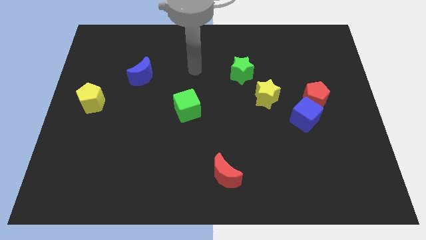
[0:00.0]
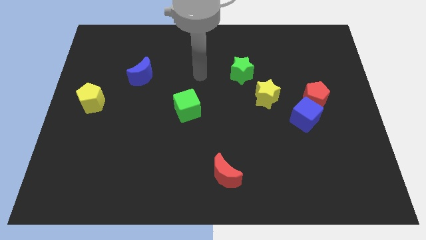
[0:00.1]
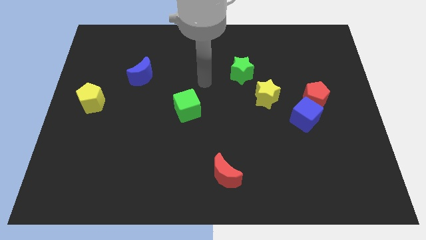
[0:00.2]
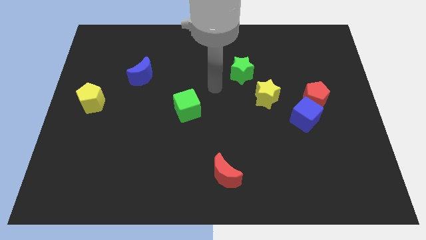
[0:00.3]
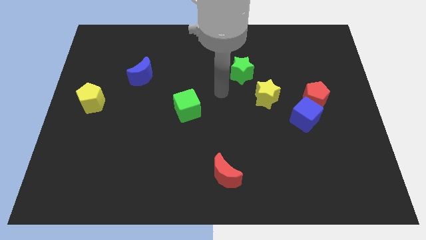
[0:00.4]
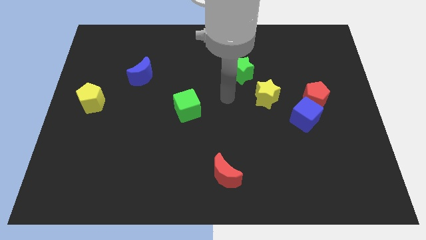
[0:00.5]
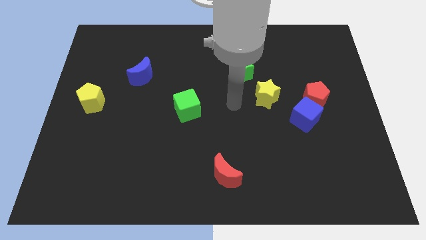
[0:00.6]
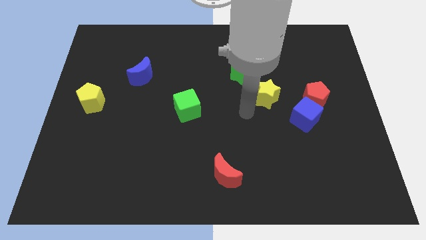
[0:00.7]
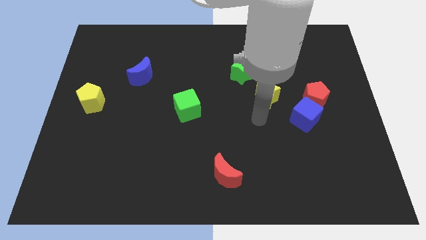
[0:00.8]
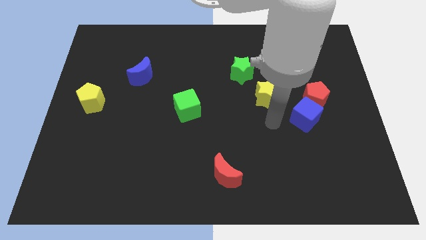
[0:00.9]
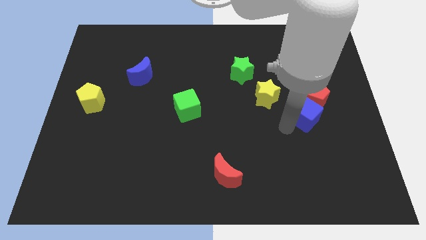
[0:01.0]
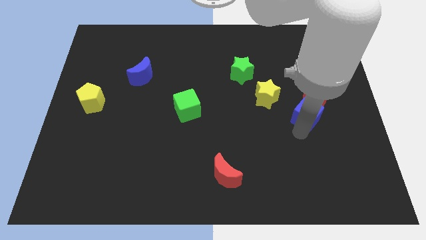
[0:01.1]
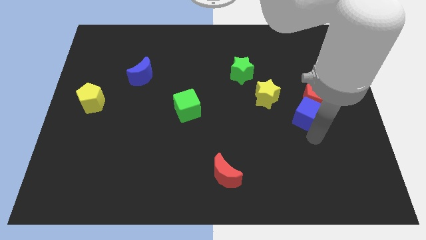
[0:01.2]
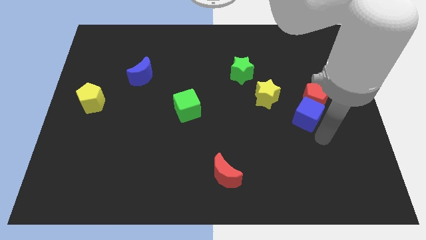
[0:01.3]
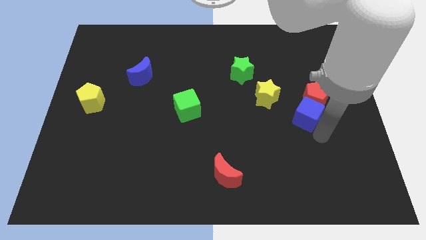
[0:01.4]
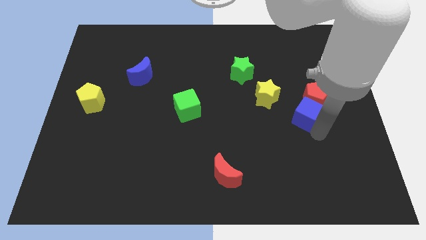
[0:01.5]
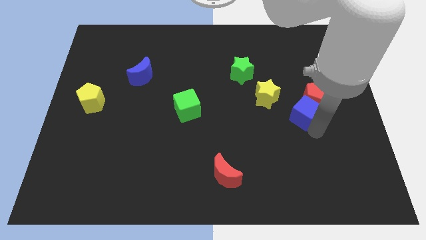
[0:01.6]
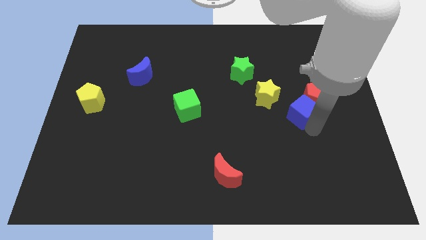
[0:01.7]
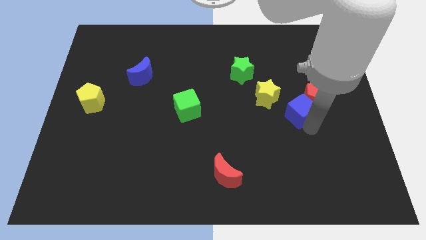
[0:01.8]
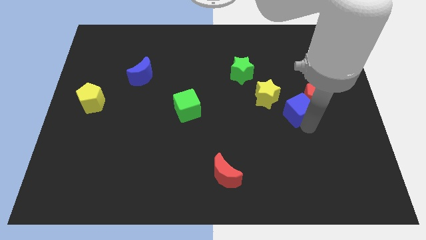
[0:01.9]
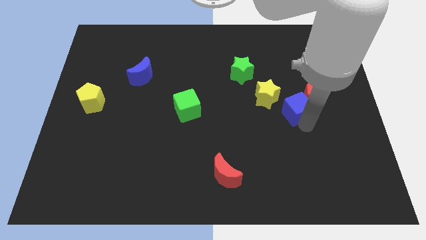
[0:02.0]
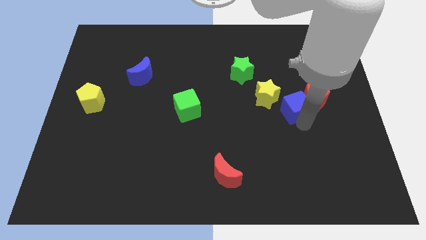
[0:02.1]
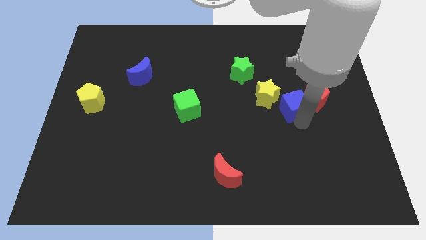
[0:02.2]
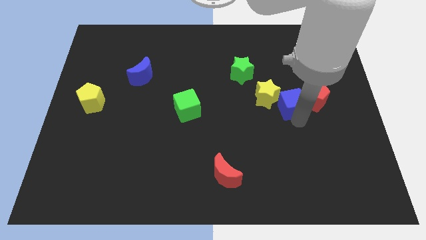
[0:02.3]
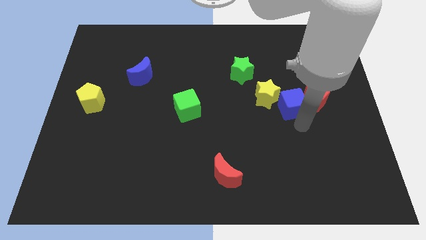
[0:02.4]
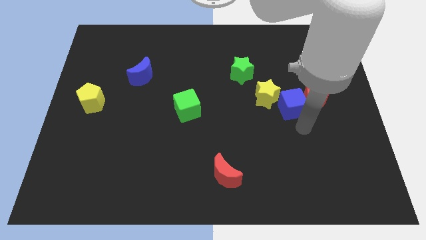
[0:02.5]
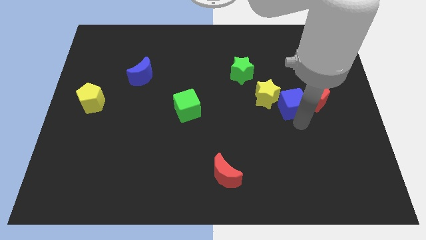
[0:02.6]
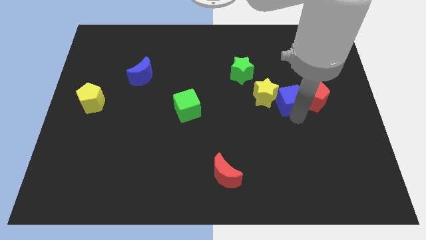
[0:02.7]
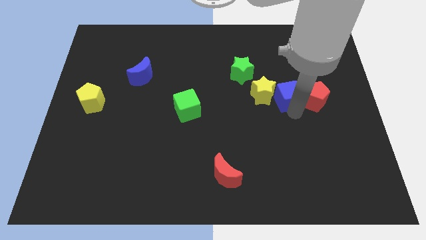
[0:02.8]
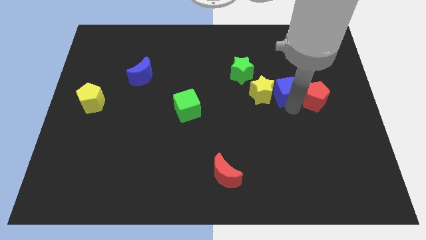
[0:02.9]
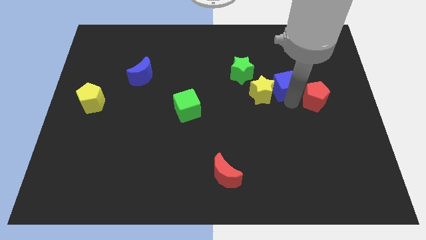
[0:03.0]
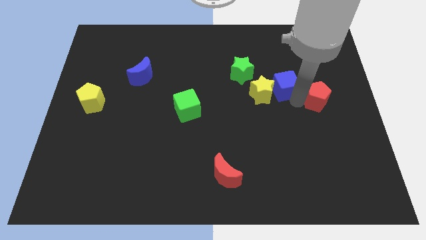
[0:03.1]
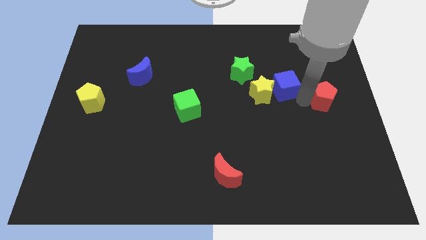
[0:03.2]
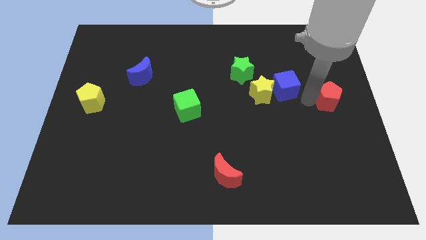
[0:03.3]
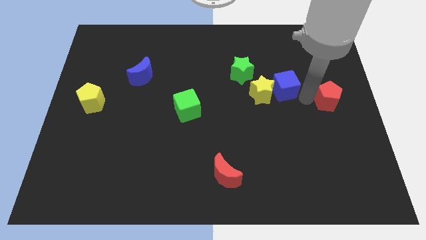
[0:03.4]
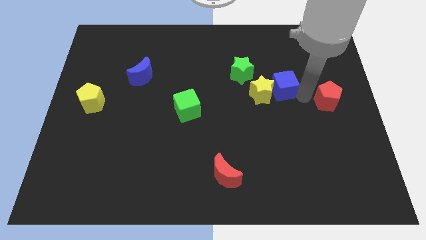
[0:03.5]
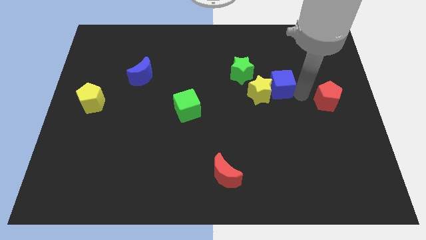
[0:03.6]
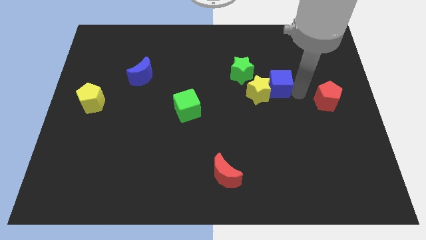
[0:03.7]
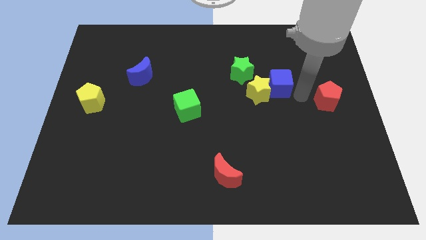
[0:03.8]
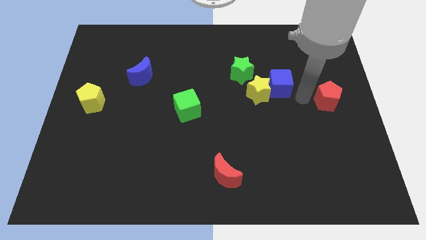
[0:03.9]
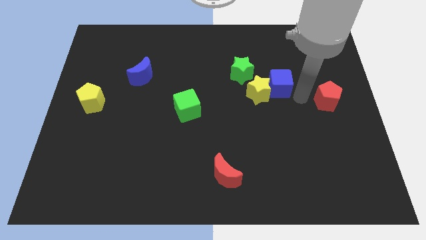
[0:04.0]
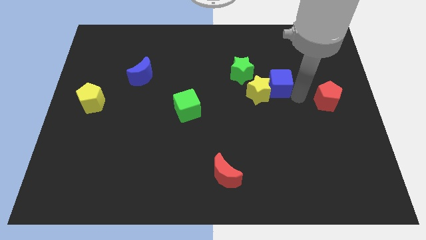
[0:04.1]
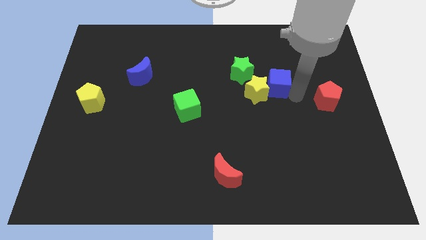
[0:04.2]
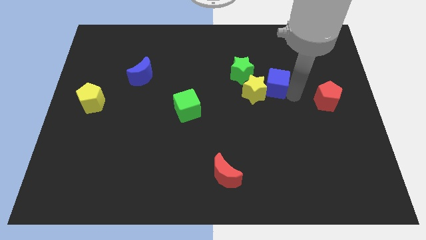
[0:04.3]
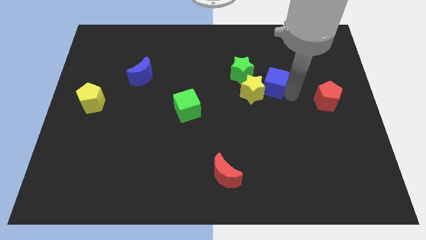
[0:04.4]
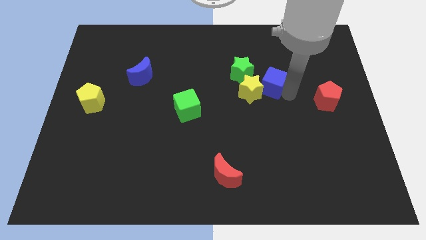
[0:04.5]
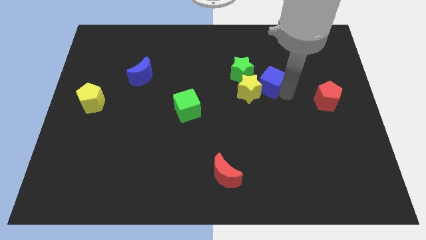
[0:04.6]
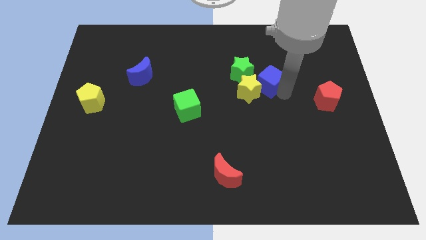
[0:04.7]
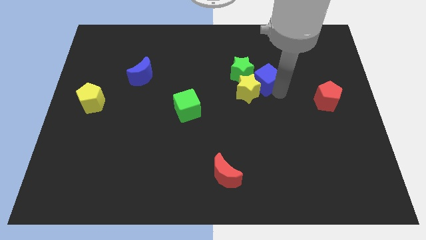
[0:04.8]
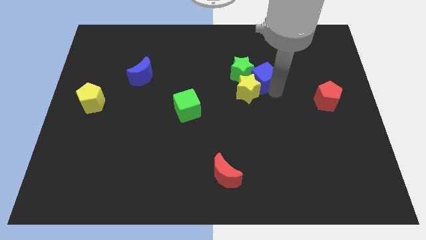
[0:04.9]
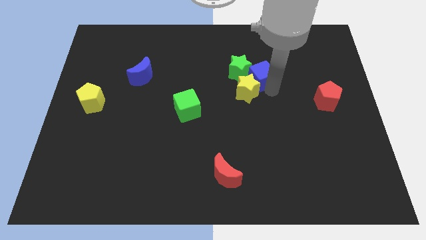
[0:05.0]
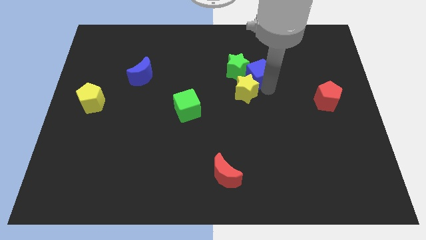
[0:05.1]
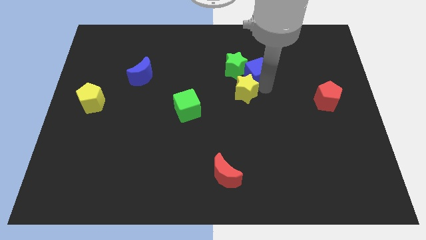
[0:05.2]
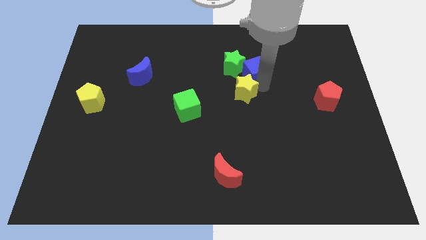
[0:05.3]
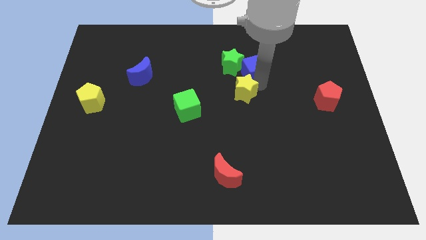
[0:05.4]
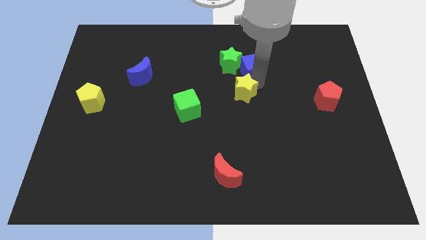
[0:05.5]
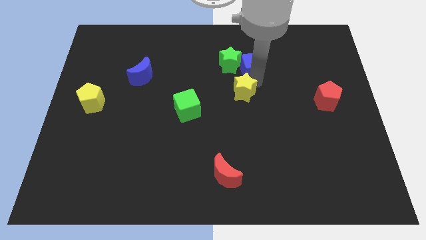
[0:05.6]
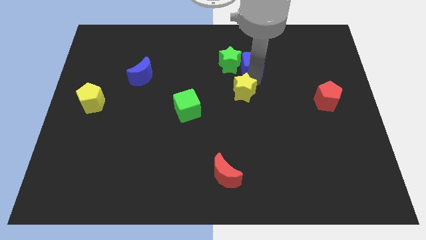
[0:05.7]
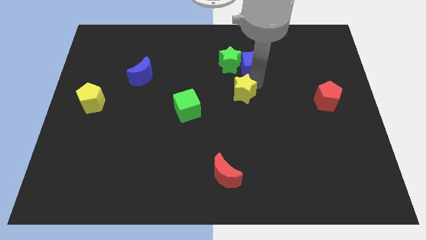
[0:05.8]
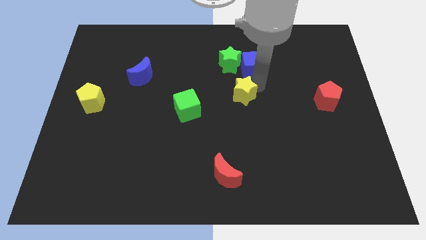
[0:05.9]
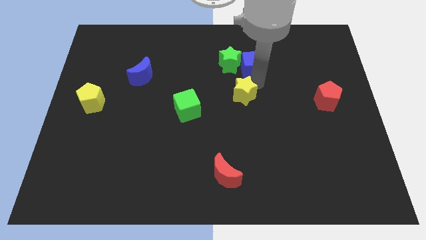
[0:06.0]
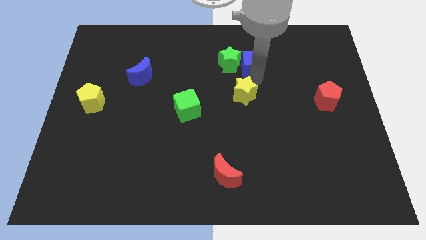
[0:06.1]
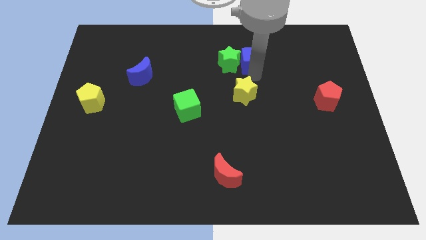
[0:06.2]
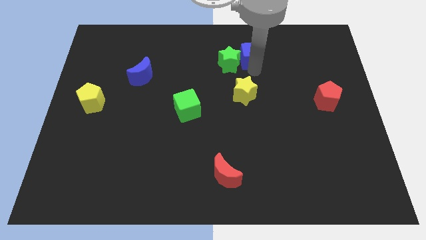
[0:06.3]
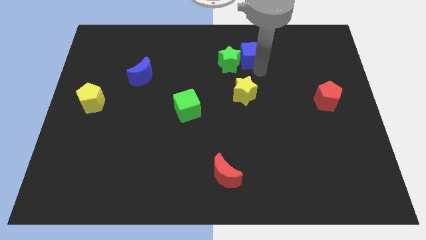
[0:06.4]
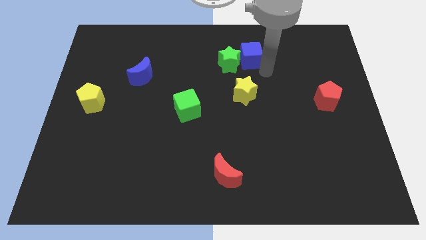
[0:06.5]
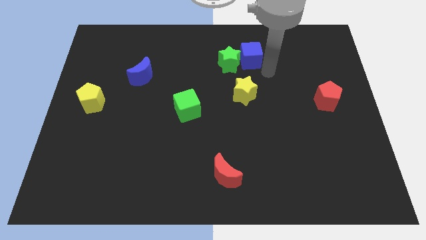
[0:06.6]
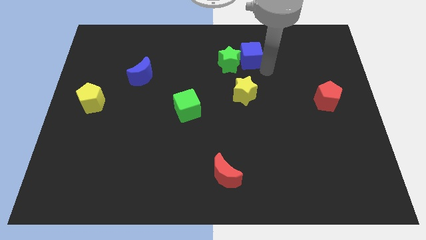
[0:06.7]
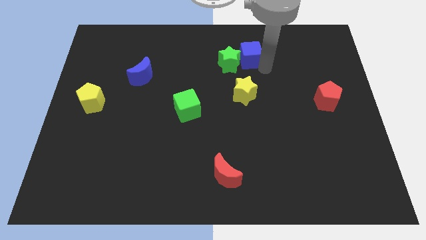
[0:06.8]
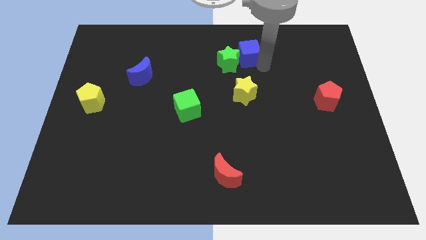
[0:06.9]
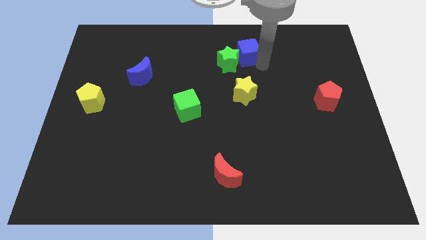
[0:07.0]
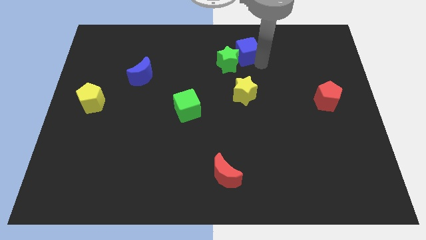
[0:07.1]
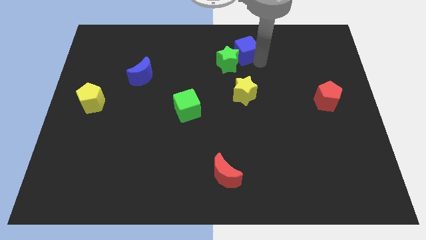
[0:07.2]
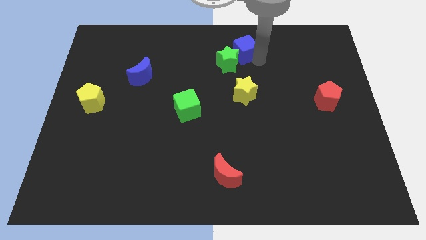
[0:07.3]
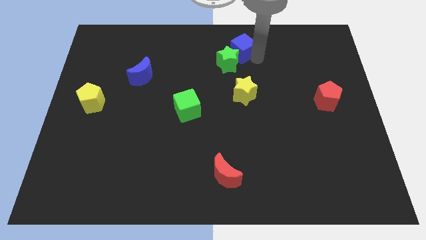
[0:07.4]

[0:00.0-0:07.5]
put the blue cube to the top
